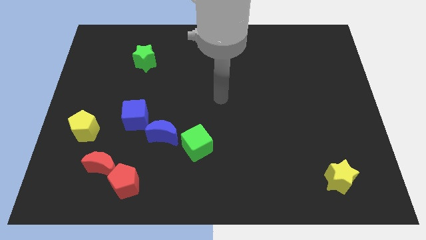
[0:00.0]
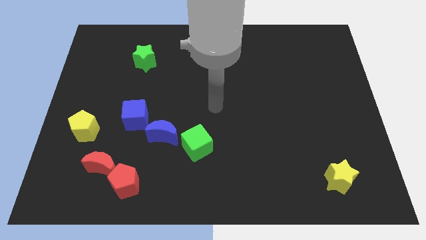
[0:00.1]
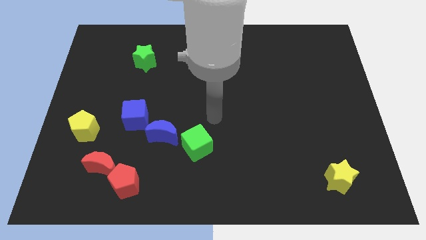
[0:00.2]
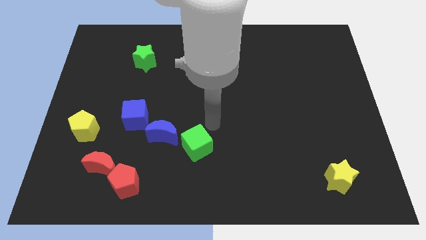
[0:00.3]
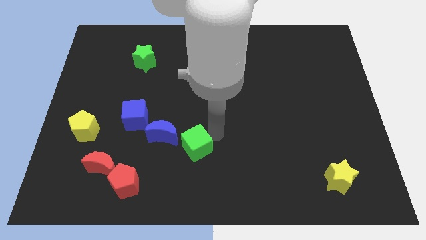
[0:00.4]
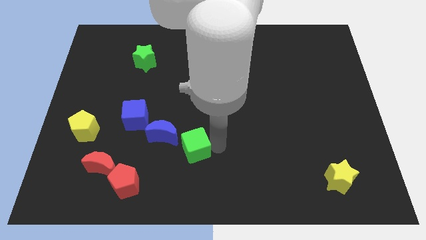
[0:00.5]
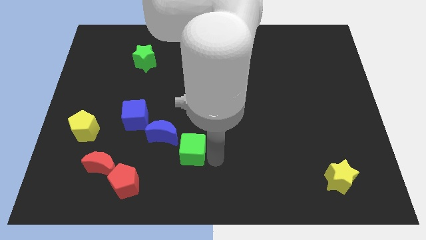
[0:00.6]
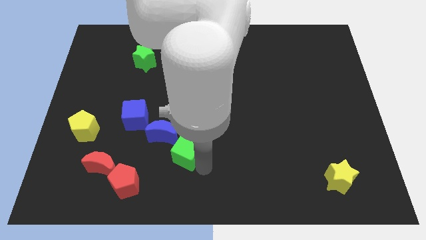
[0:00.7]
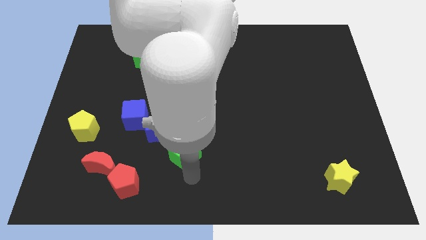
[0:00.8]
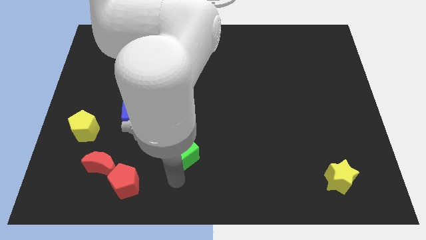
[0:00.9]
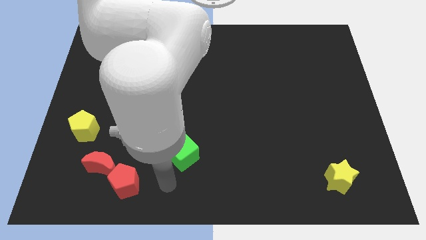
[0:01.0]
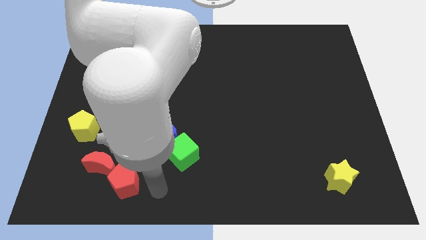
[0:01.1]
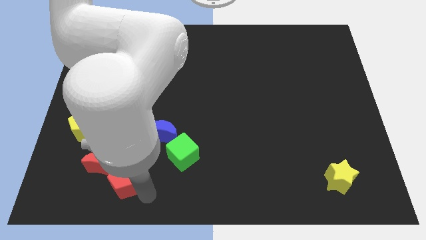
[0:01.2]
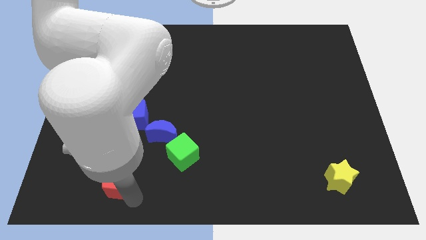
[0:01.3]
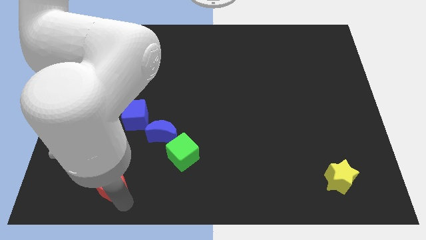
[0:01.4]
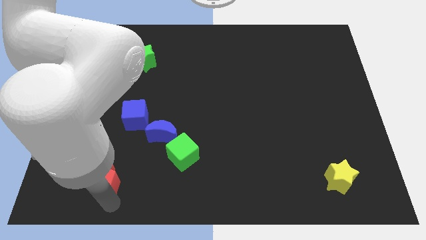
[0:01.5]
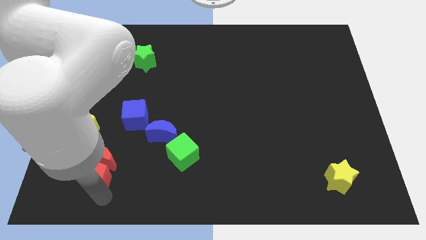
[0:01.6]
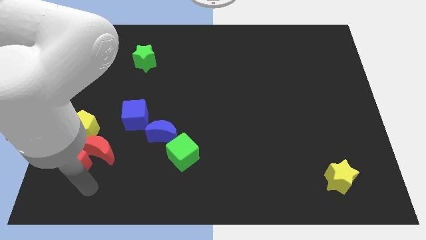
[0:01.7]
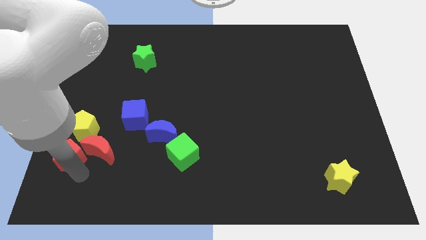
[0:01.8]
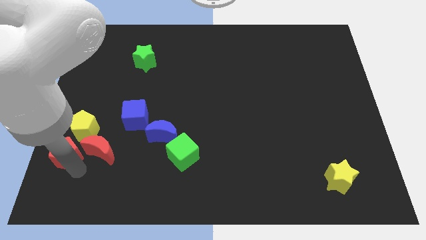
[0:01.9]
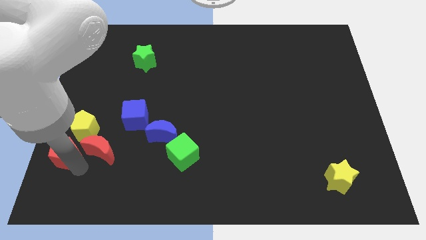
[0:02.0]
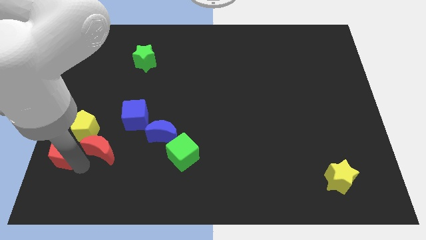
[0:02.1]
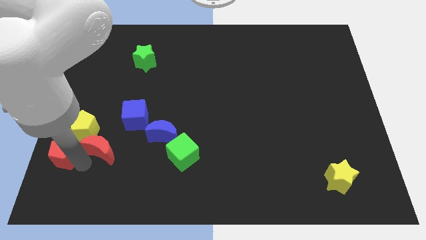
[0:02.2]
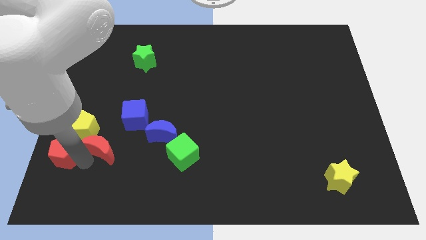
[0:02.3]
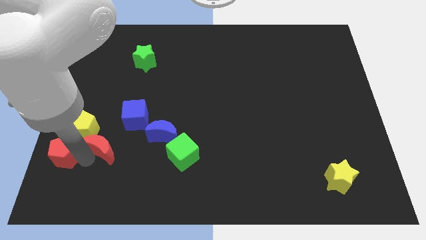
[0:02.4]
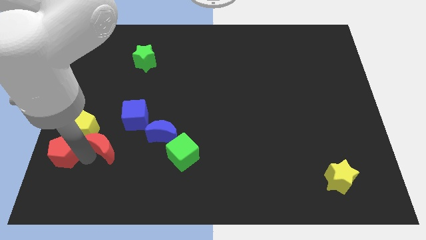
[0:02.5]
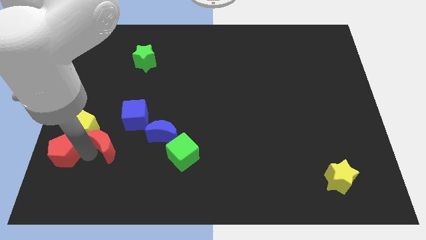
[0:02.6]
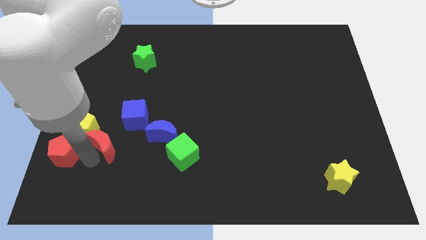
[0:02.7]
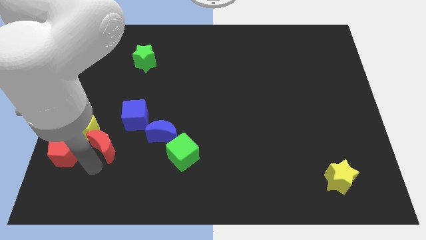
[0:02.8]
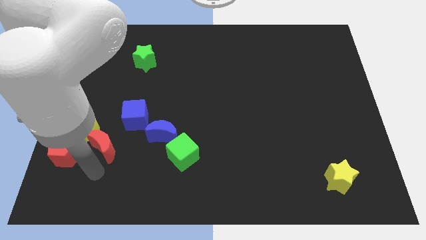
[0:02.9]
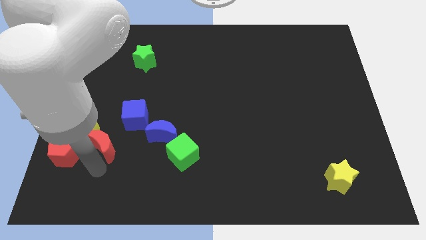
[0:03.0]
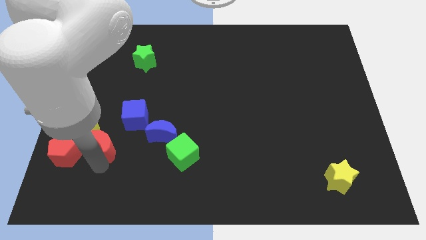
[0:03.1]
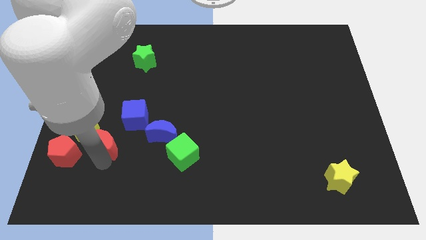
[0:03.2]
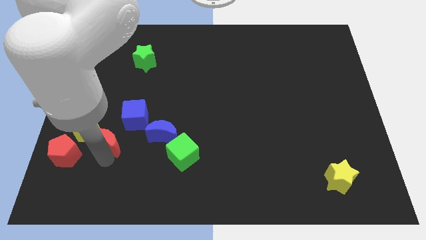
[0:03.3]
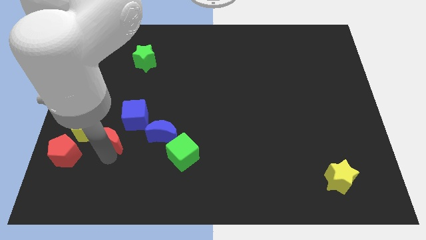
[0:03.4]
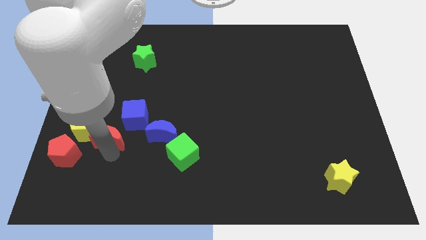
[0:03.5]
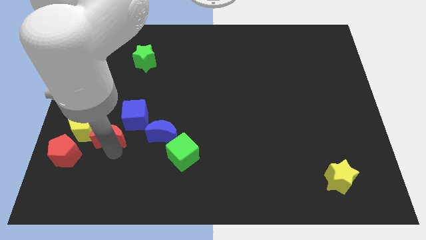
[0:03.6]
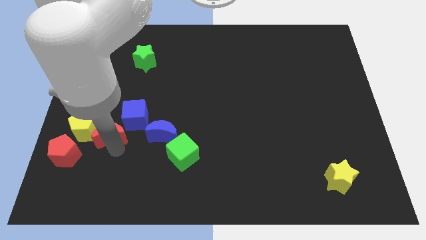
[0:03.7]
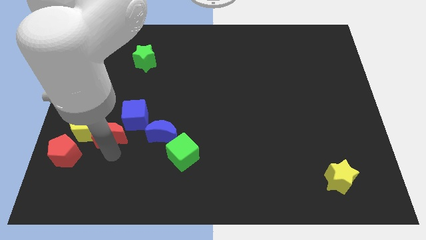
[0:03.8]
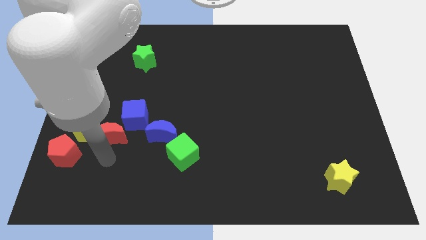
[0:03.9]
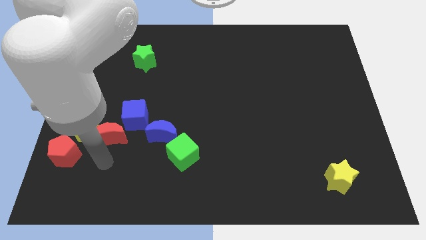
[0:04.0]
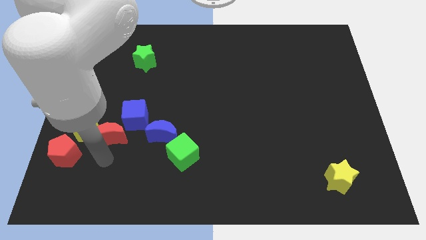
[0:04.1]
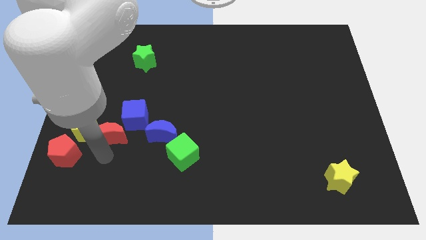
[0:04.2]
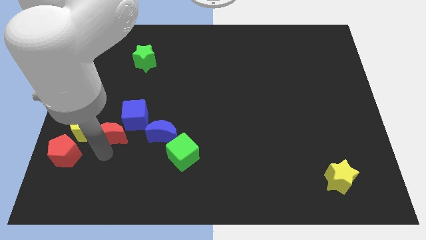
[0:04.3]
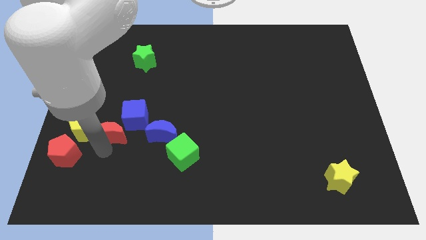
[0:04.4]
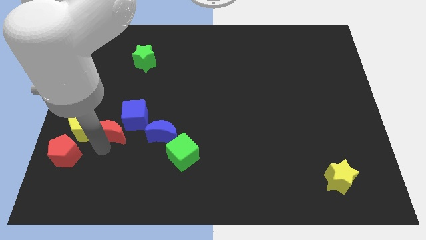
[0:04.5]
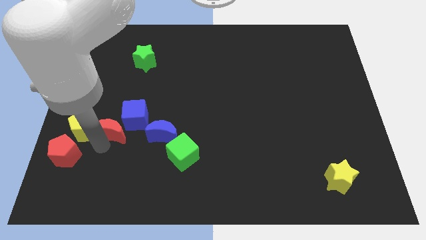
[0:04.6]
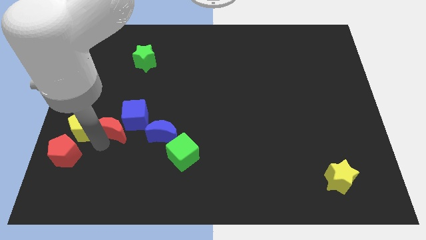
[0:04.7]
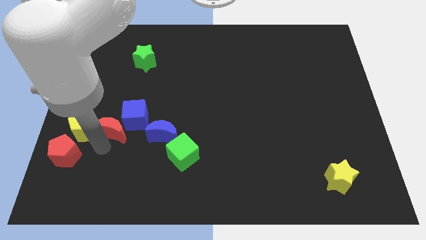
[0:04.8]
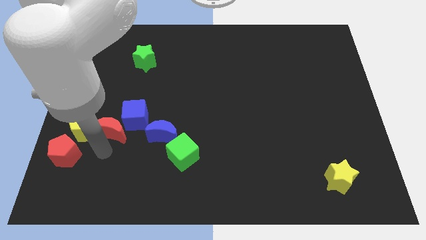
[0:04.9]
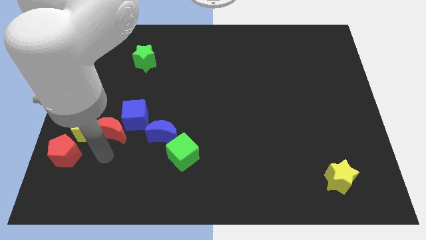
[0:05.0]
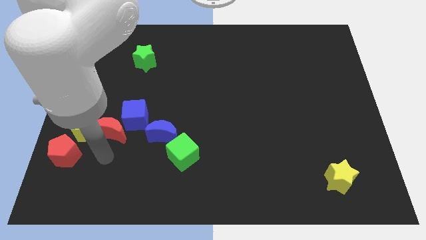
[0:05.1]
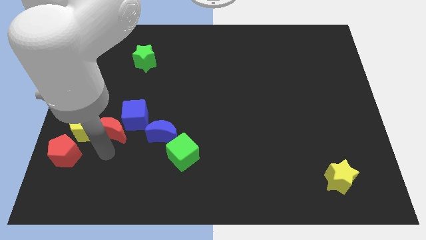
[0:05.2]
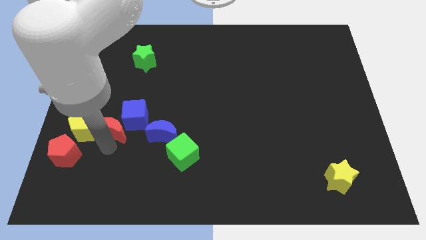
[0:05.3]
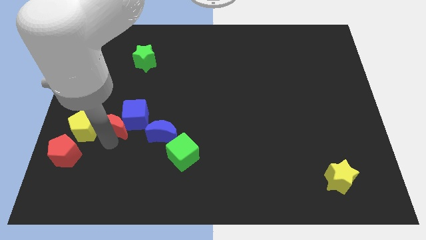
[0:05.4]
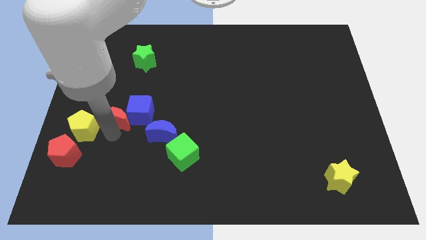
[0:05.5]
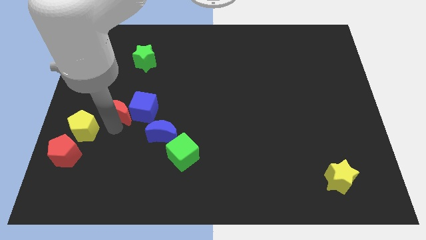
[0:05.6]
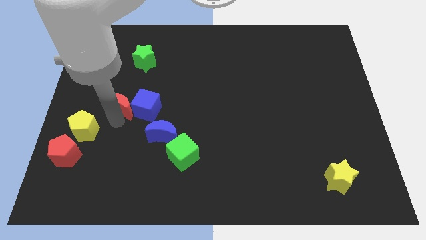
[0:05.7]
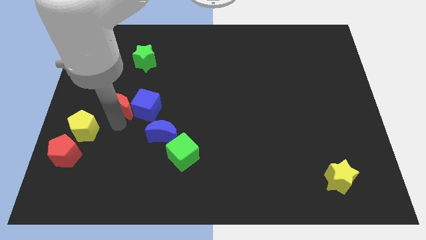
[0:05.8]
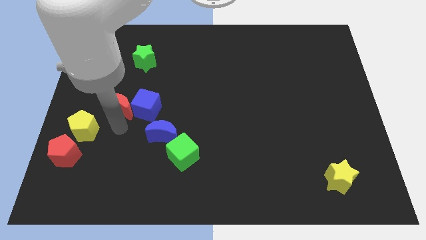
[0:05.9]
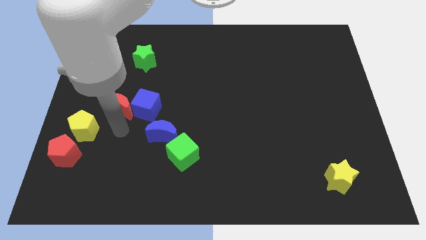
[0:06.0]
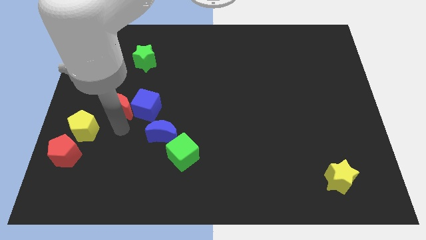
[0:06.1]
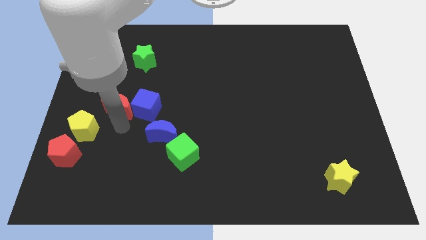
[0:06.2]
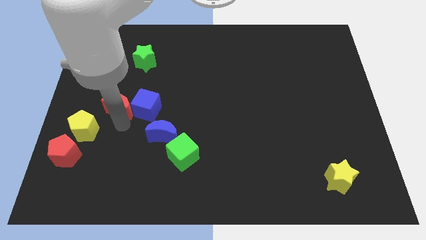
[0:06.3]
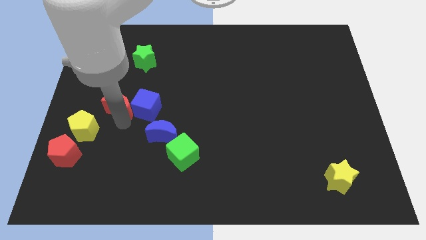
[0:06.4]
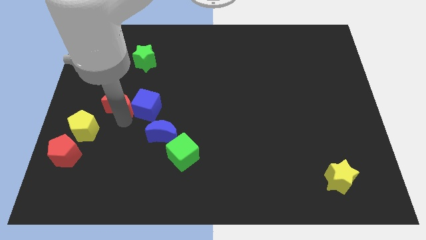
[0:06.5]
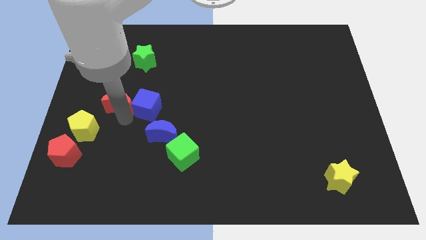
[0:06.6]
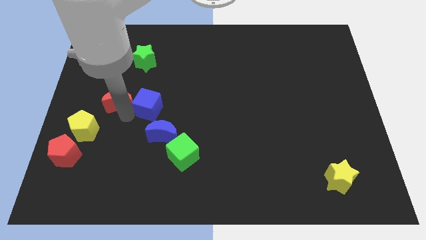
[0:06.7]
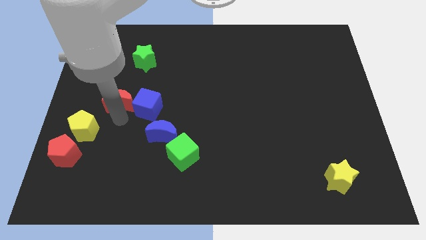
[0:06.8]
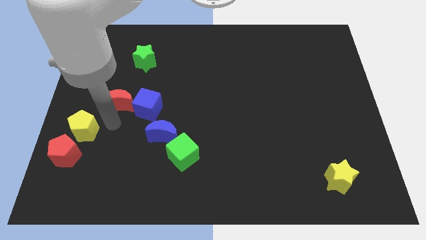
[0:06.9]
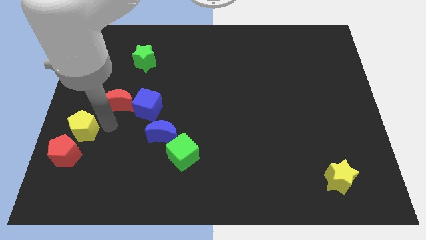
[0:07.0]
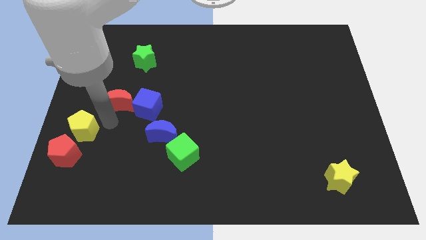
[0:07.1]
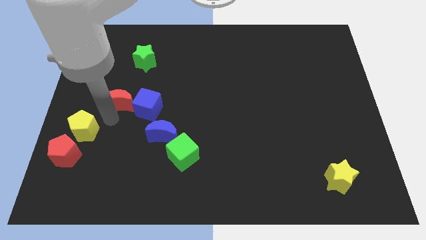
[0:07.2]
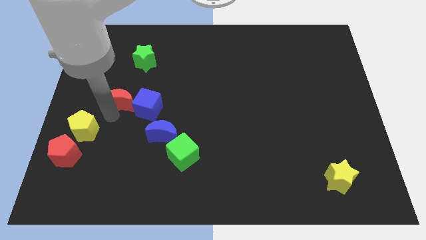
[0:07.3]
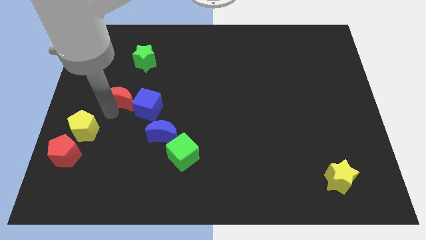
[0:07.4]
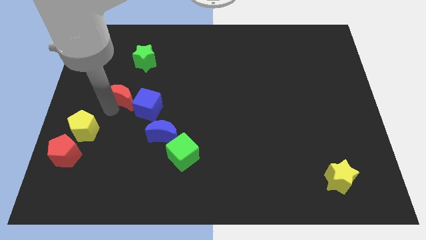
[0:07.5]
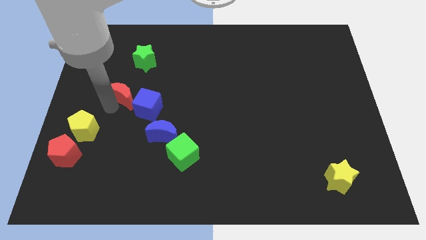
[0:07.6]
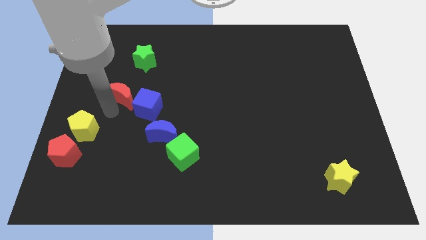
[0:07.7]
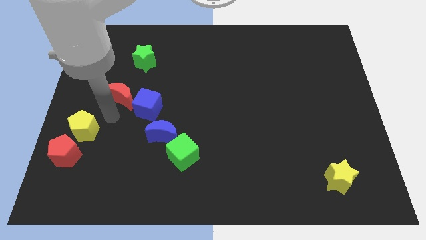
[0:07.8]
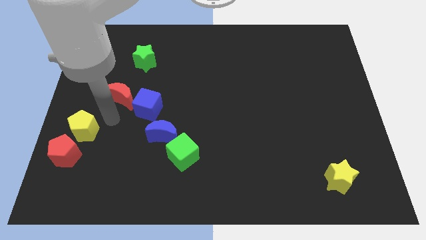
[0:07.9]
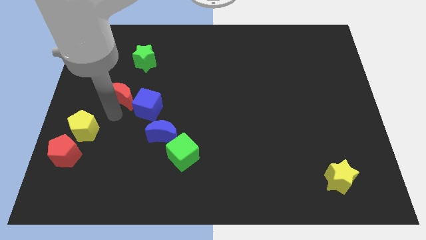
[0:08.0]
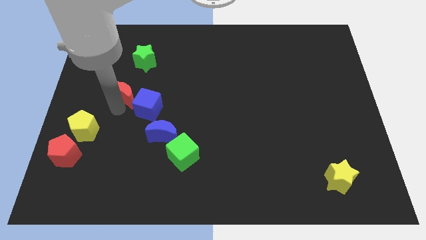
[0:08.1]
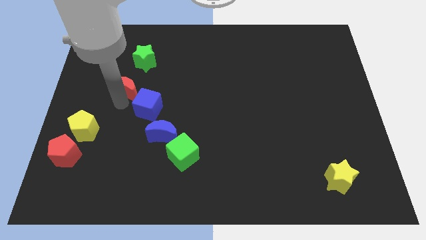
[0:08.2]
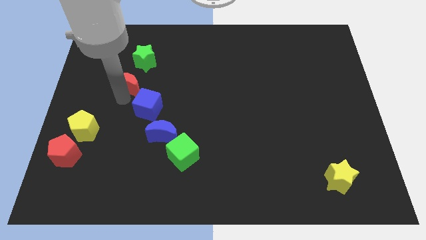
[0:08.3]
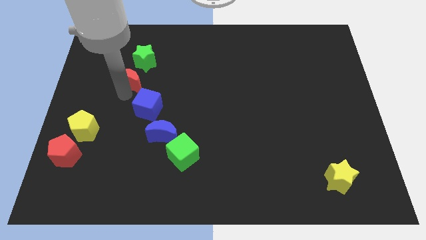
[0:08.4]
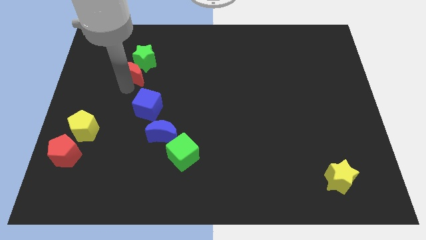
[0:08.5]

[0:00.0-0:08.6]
push the red moon towards the green star
